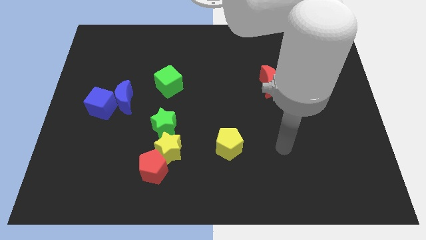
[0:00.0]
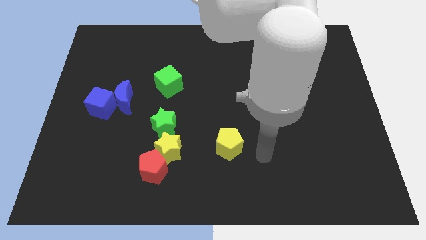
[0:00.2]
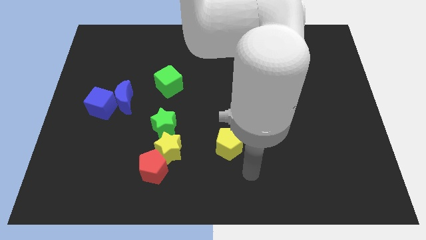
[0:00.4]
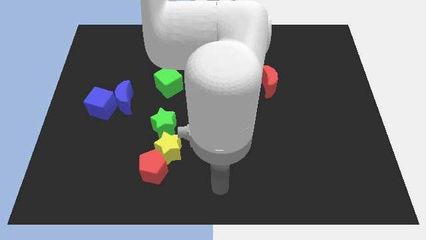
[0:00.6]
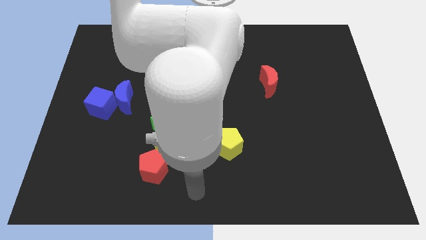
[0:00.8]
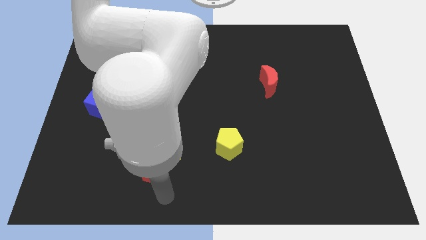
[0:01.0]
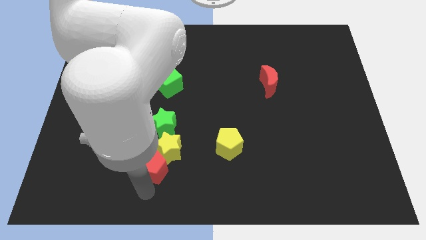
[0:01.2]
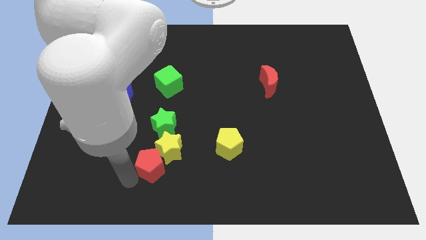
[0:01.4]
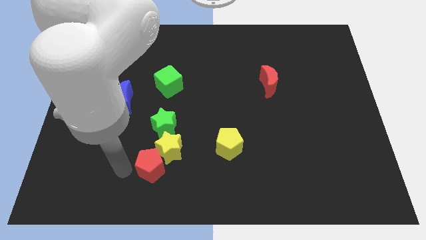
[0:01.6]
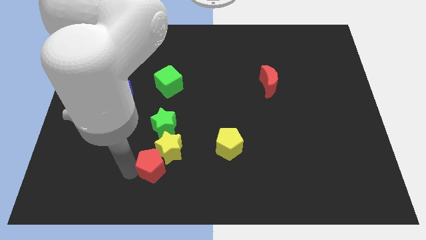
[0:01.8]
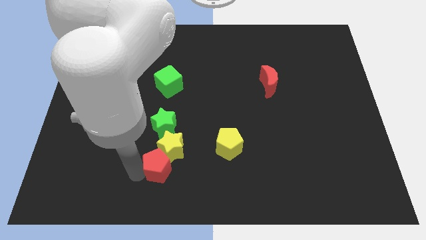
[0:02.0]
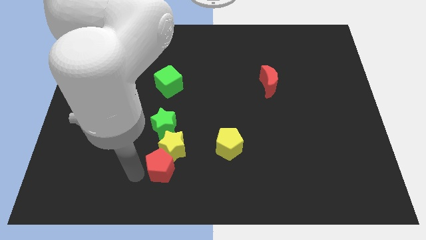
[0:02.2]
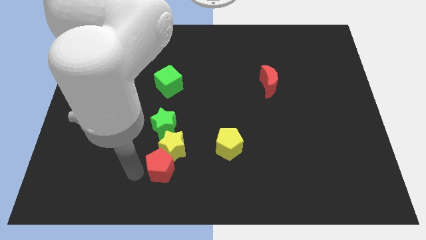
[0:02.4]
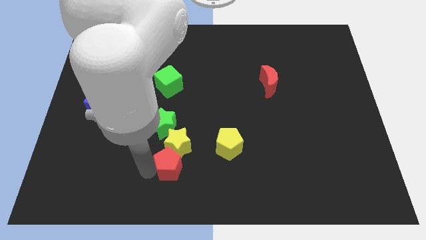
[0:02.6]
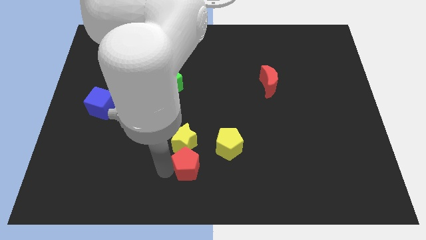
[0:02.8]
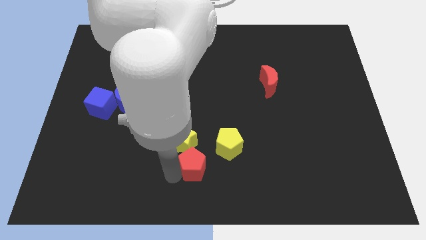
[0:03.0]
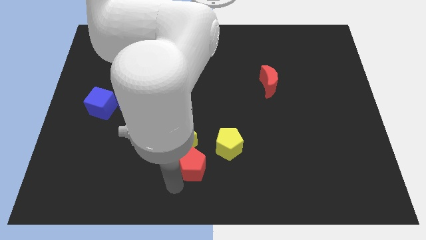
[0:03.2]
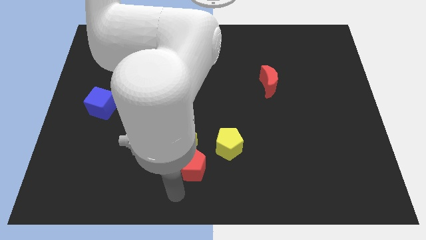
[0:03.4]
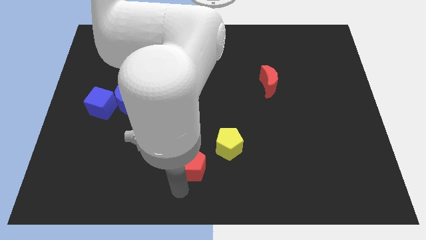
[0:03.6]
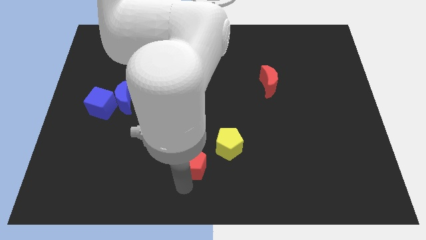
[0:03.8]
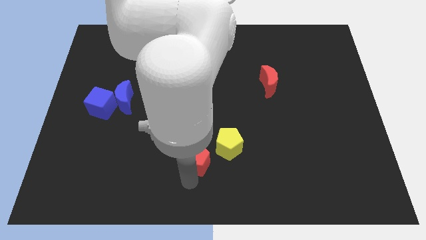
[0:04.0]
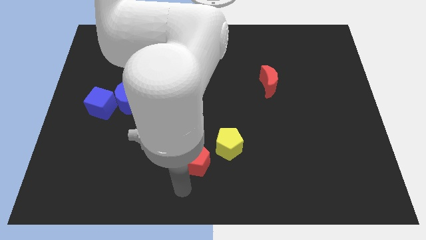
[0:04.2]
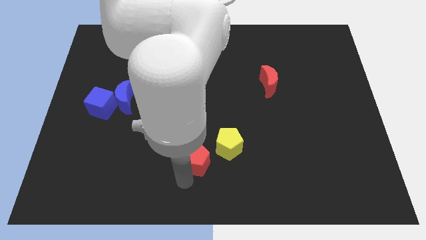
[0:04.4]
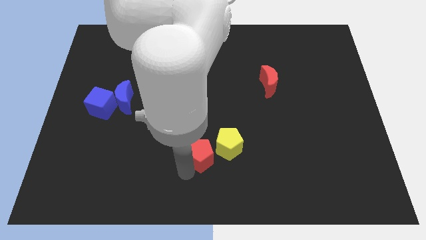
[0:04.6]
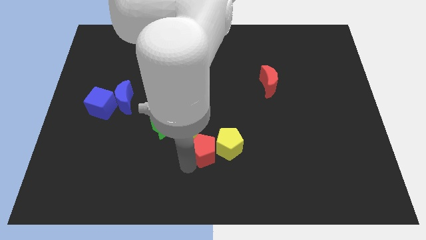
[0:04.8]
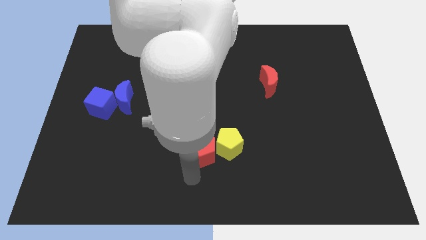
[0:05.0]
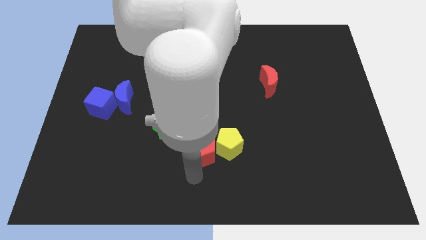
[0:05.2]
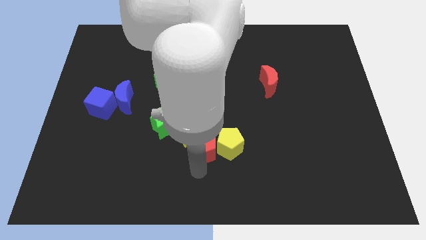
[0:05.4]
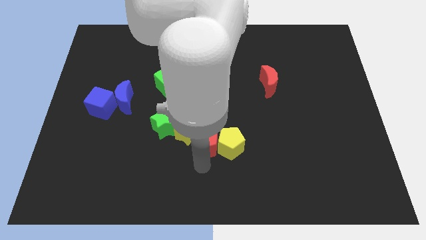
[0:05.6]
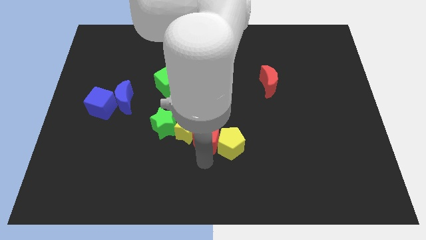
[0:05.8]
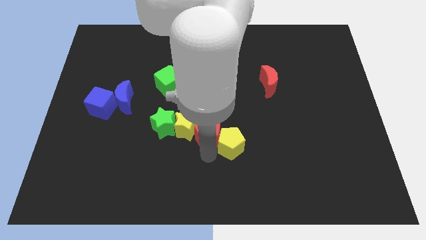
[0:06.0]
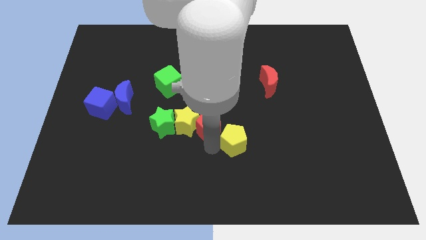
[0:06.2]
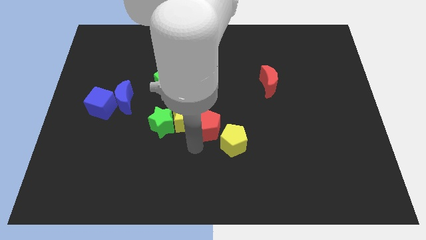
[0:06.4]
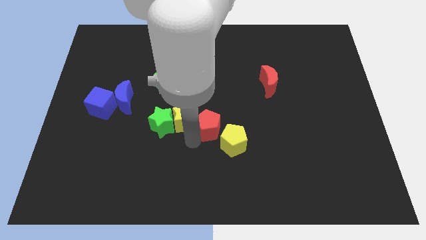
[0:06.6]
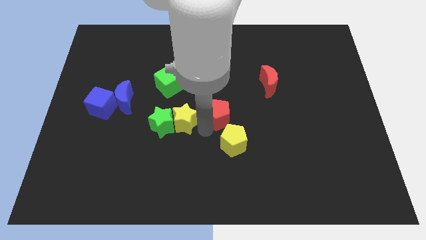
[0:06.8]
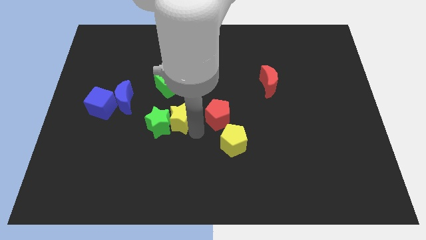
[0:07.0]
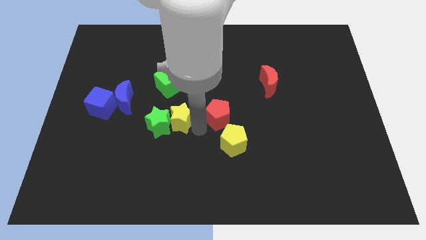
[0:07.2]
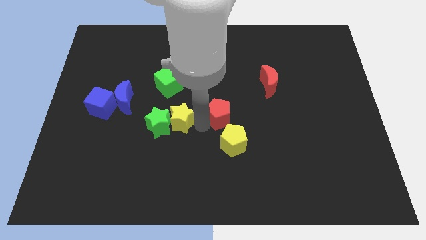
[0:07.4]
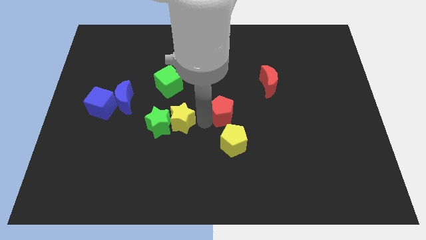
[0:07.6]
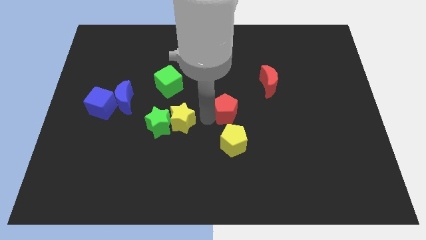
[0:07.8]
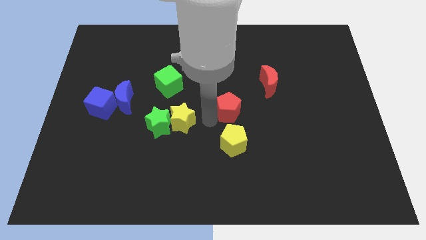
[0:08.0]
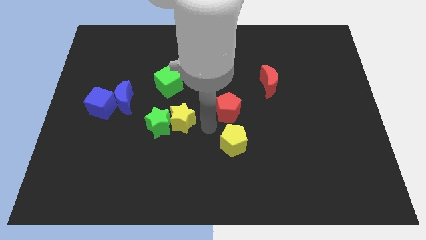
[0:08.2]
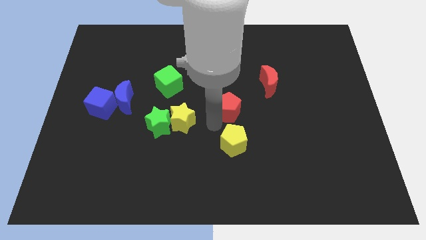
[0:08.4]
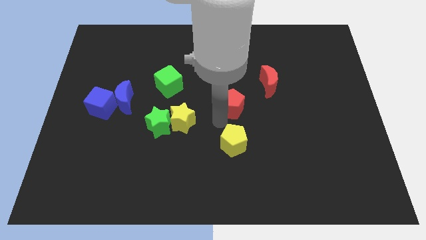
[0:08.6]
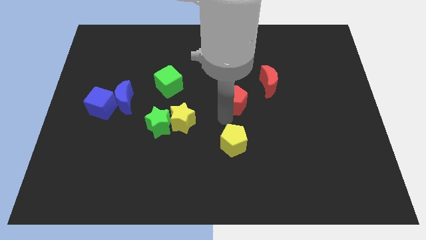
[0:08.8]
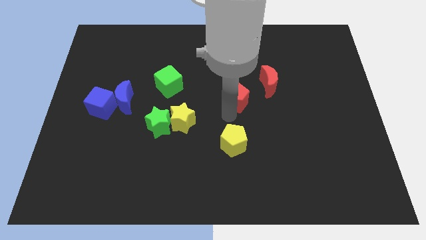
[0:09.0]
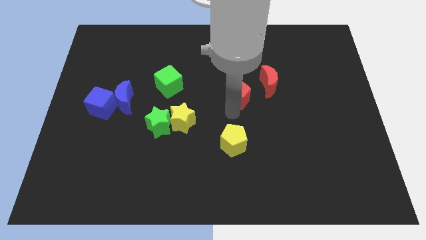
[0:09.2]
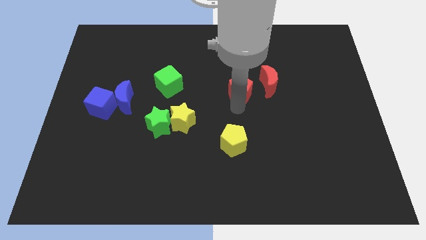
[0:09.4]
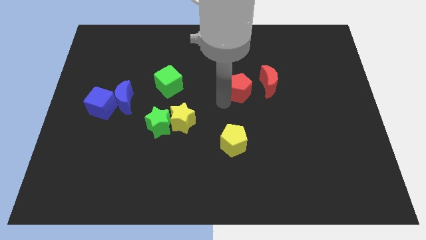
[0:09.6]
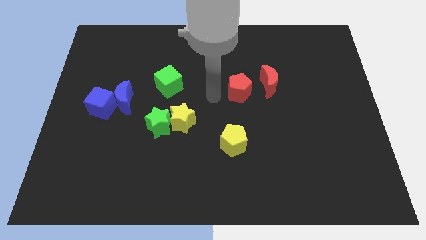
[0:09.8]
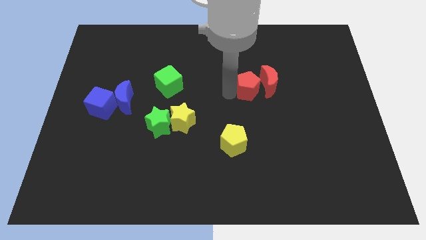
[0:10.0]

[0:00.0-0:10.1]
put the red pentagon next to the red moon

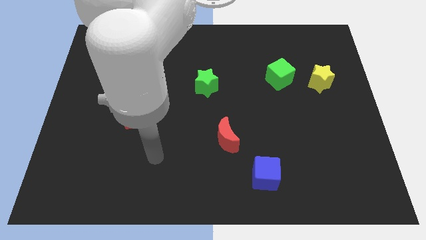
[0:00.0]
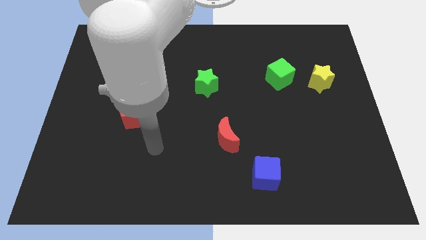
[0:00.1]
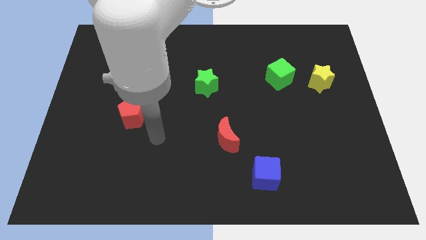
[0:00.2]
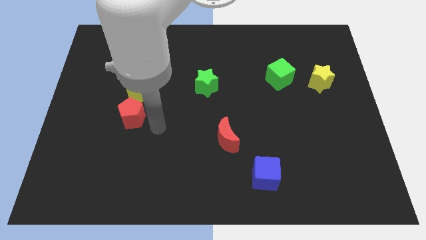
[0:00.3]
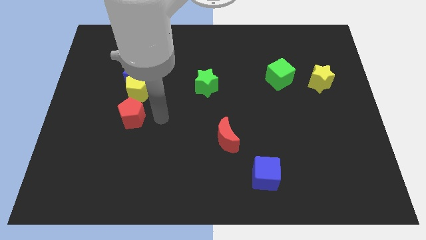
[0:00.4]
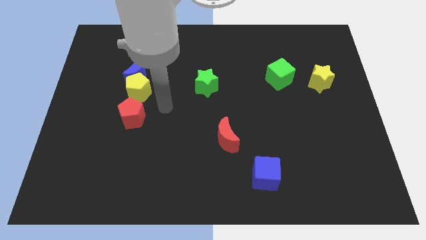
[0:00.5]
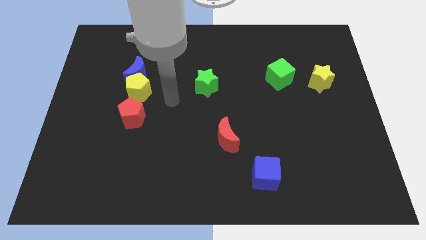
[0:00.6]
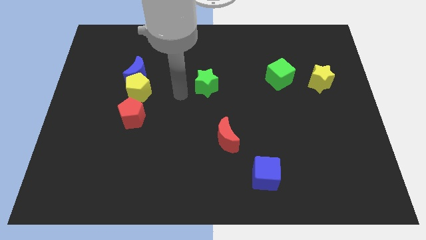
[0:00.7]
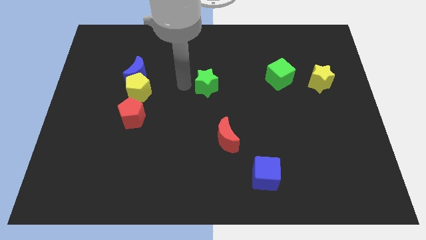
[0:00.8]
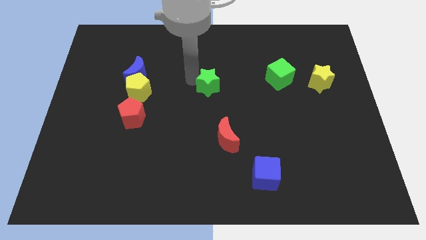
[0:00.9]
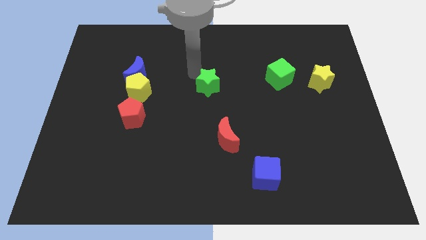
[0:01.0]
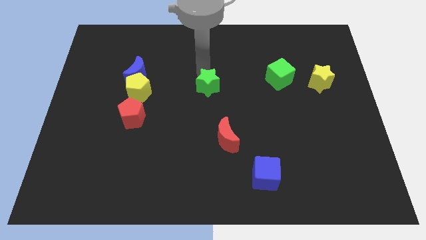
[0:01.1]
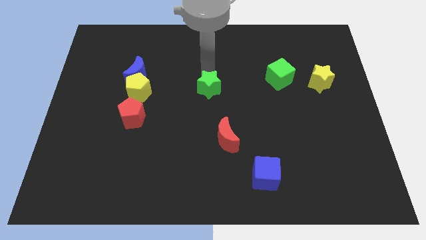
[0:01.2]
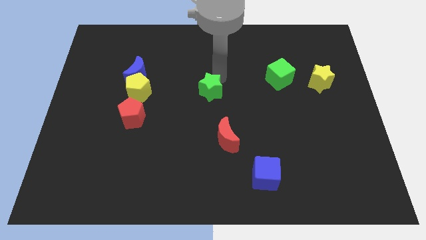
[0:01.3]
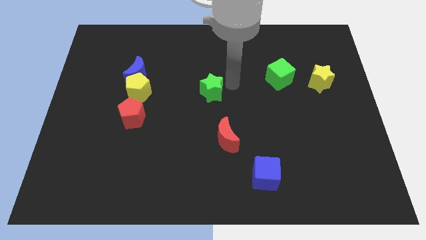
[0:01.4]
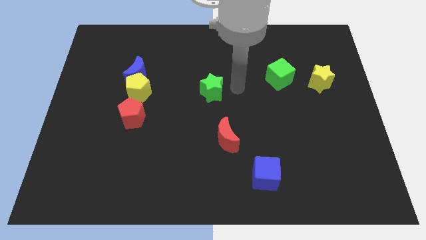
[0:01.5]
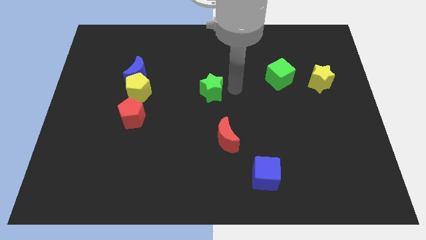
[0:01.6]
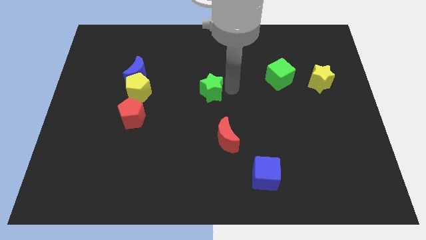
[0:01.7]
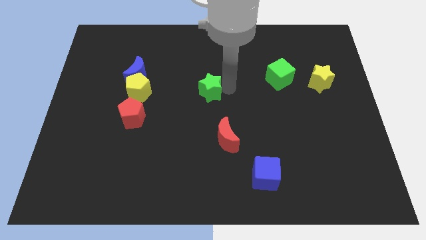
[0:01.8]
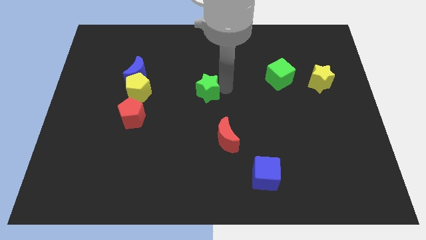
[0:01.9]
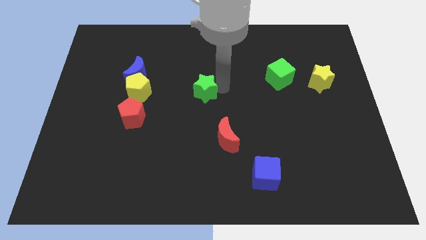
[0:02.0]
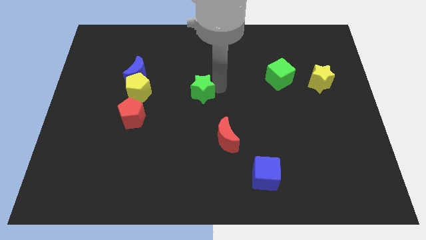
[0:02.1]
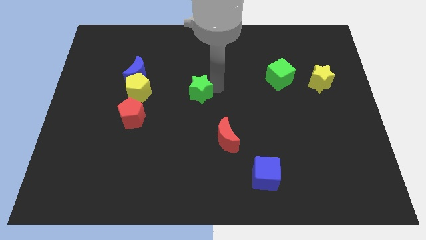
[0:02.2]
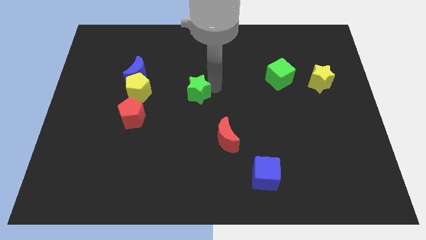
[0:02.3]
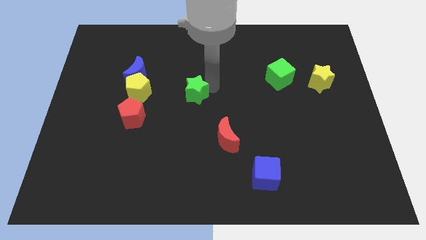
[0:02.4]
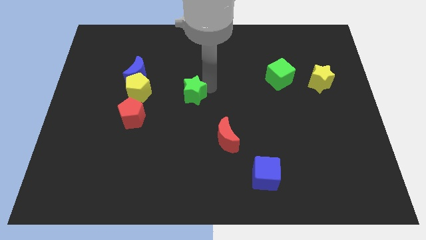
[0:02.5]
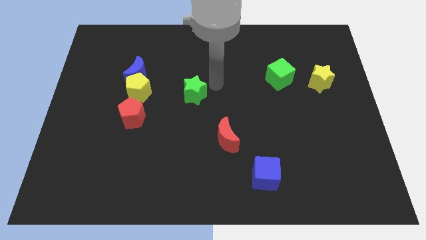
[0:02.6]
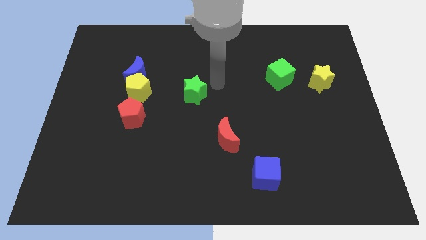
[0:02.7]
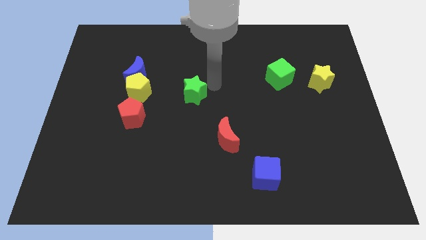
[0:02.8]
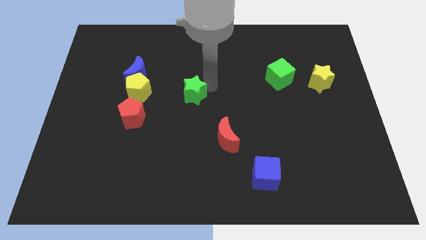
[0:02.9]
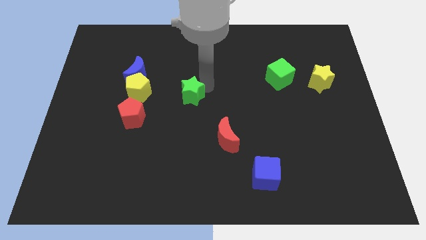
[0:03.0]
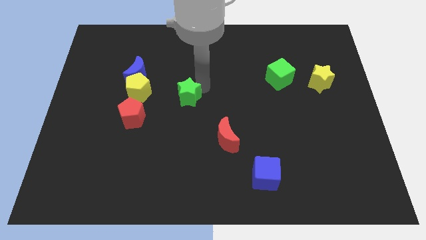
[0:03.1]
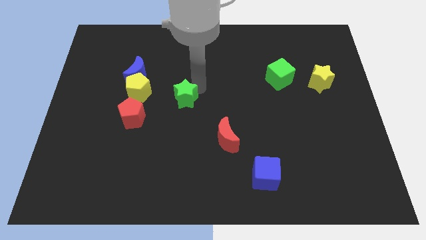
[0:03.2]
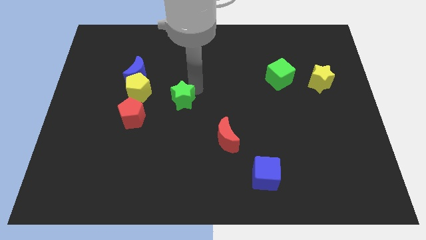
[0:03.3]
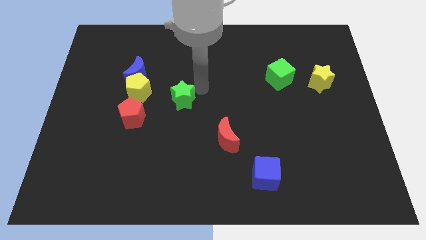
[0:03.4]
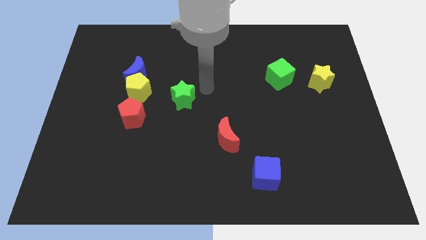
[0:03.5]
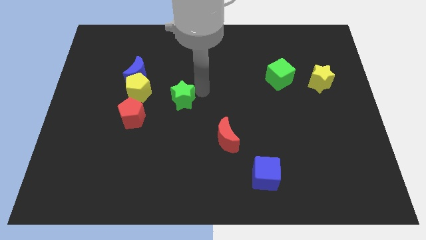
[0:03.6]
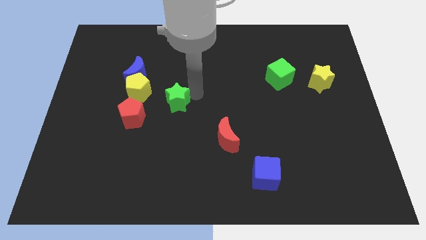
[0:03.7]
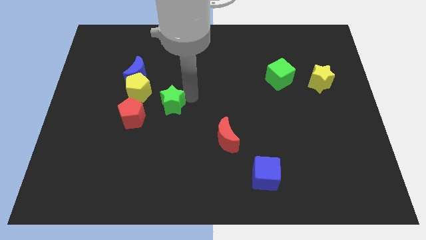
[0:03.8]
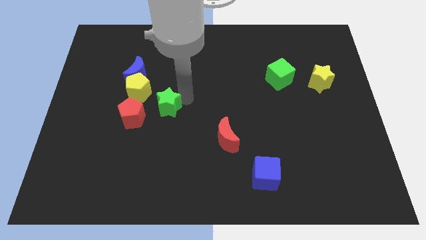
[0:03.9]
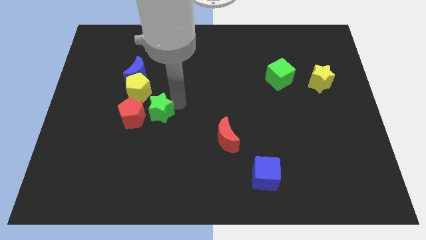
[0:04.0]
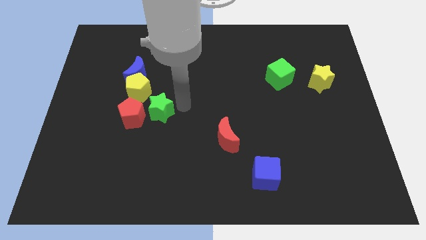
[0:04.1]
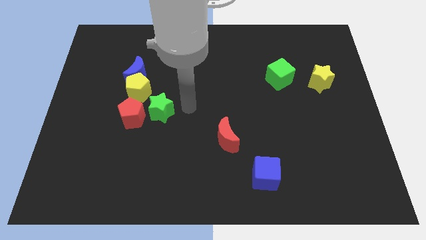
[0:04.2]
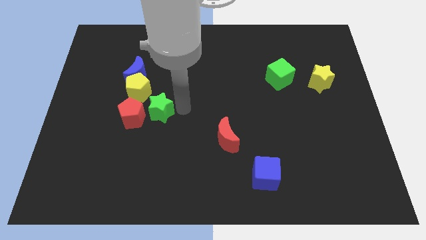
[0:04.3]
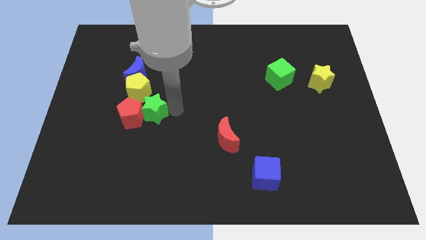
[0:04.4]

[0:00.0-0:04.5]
put the green star next to the red pentagon
